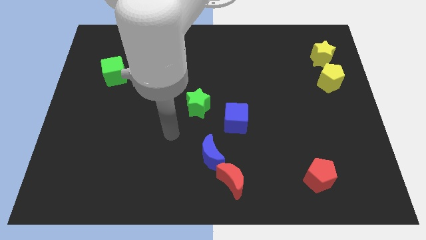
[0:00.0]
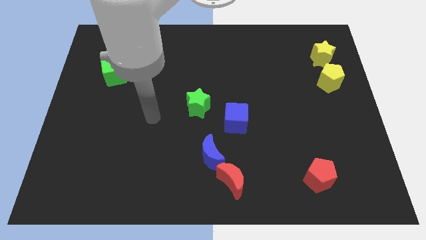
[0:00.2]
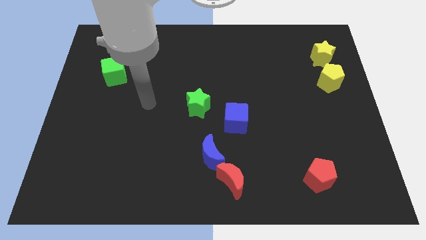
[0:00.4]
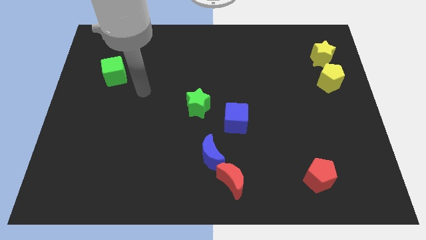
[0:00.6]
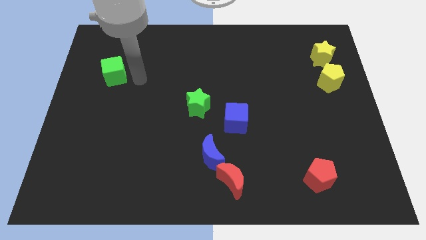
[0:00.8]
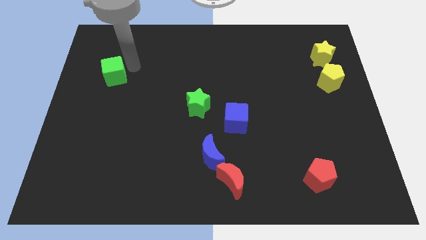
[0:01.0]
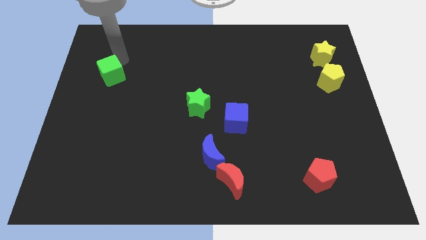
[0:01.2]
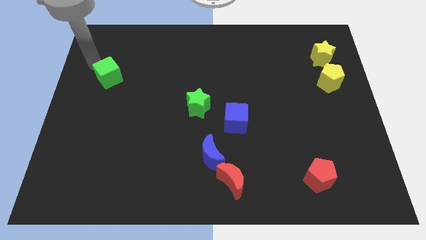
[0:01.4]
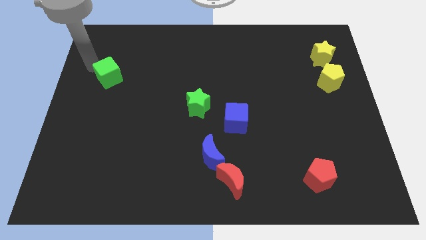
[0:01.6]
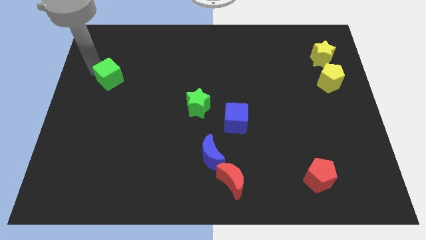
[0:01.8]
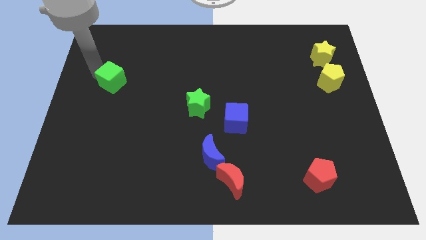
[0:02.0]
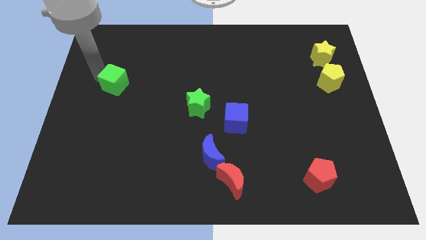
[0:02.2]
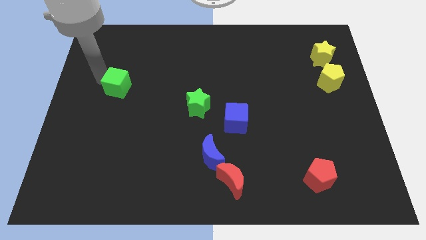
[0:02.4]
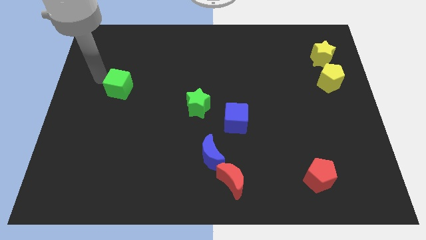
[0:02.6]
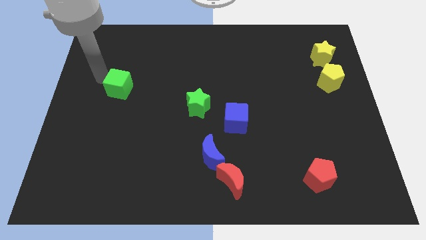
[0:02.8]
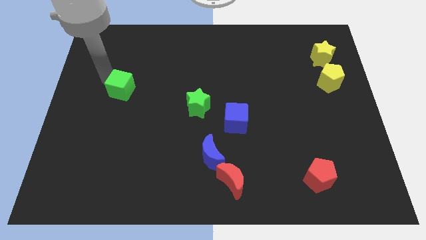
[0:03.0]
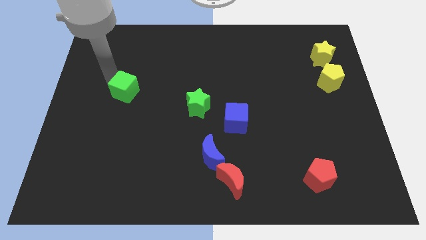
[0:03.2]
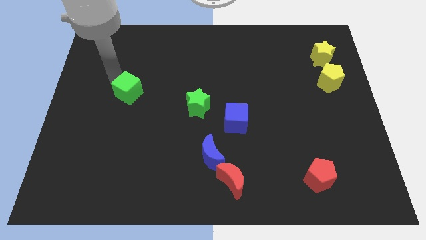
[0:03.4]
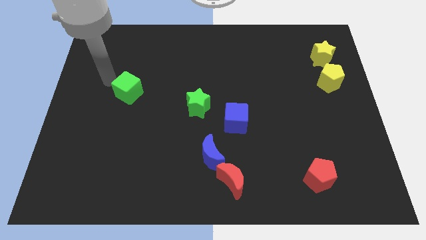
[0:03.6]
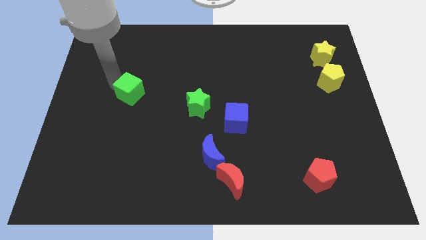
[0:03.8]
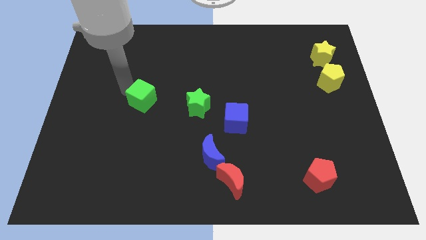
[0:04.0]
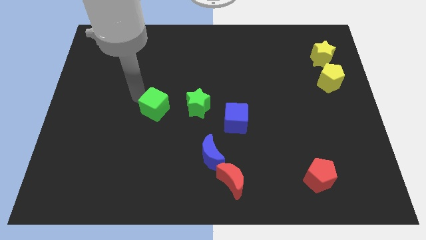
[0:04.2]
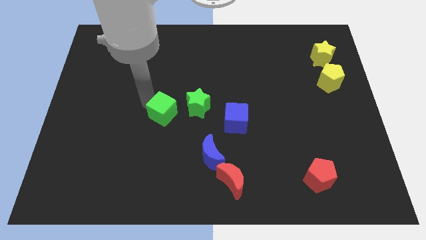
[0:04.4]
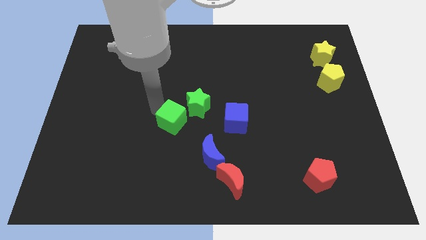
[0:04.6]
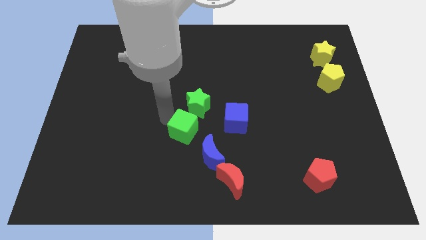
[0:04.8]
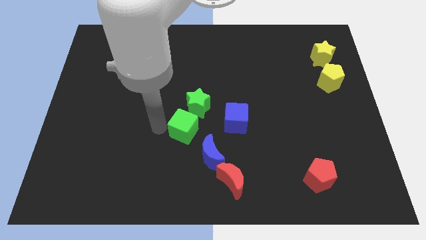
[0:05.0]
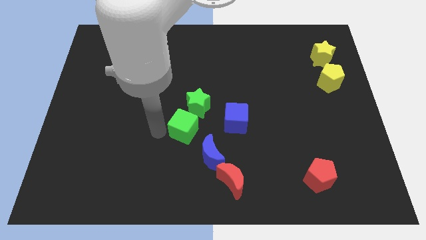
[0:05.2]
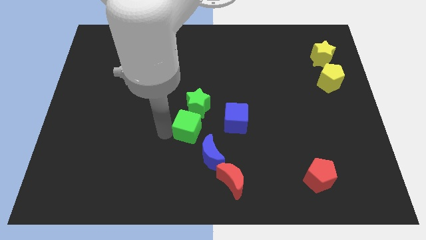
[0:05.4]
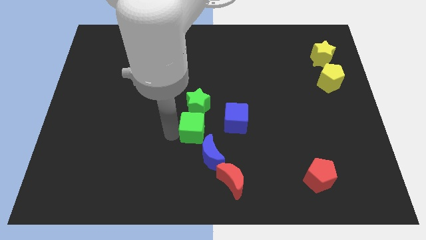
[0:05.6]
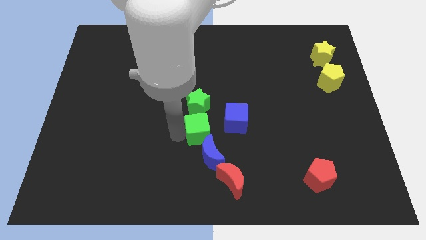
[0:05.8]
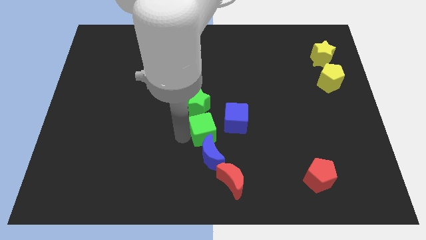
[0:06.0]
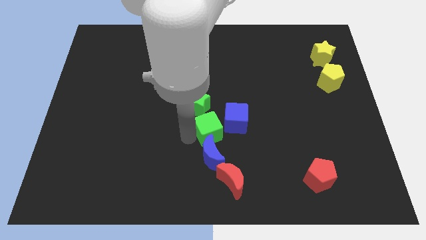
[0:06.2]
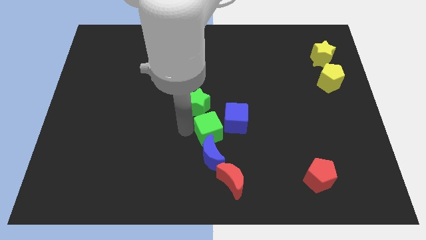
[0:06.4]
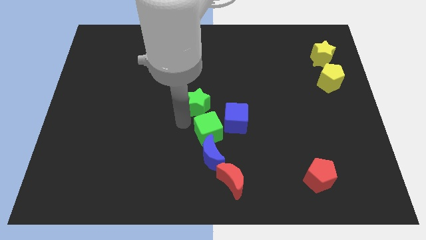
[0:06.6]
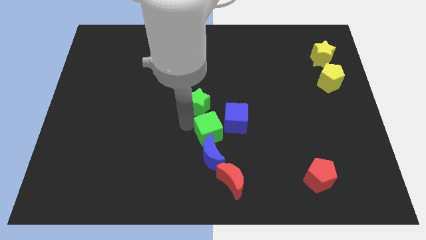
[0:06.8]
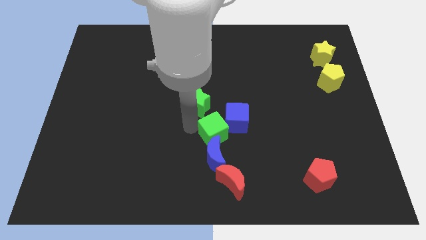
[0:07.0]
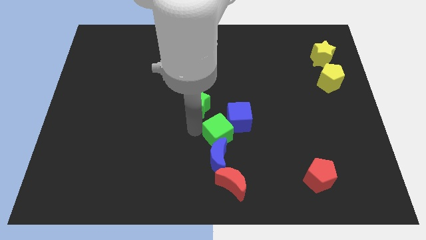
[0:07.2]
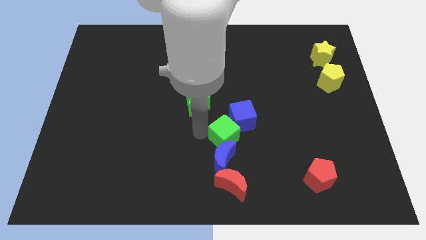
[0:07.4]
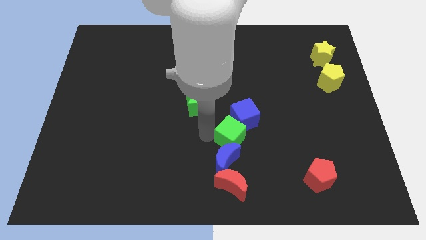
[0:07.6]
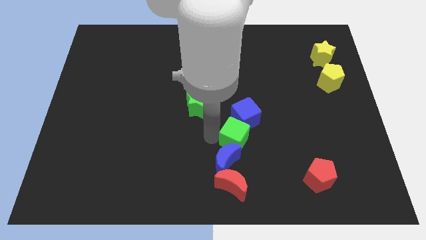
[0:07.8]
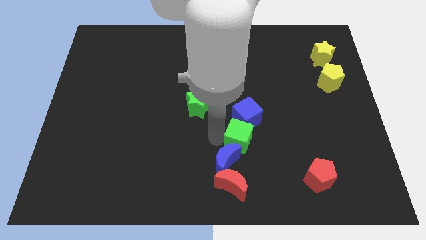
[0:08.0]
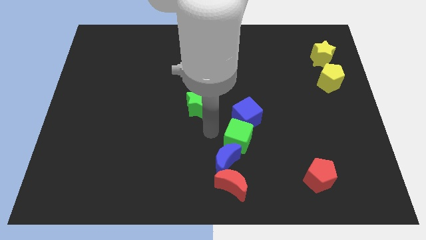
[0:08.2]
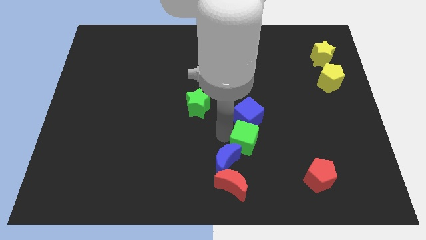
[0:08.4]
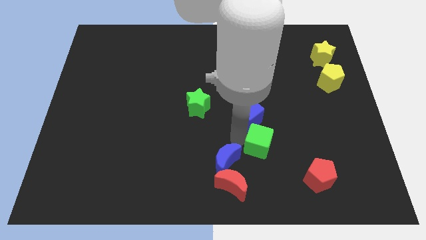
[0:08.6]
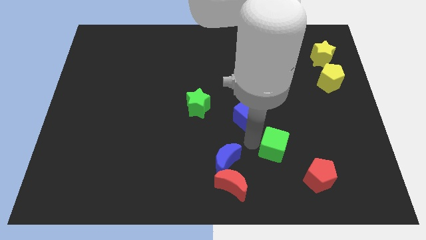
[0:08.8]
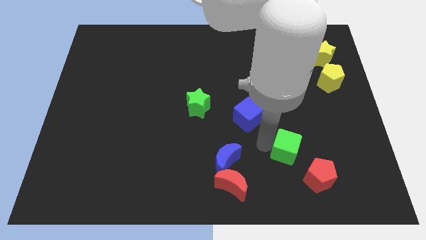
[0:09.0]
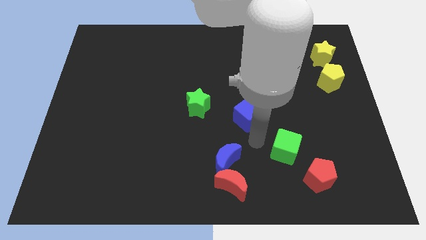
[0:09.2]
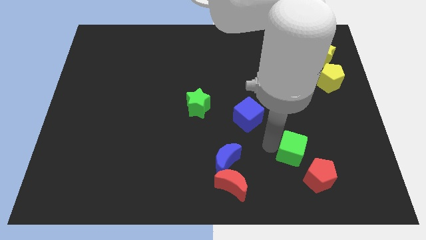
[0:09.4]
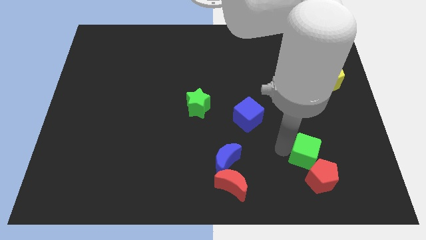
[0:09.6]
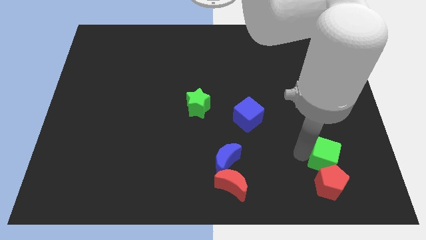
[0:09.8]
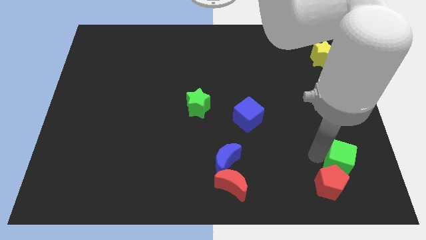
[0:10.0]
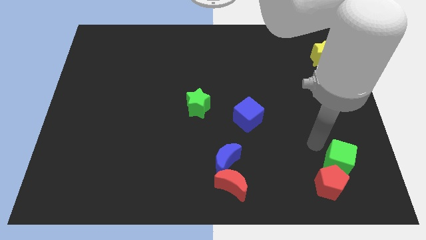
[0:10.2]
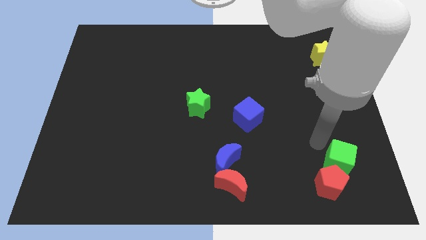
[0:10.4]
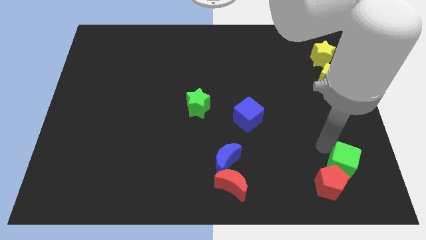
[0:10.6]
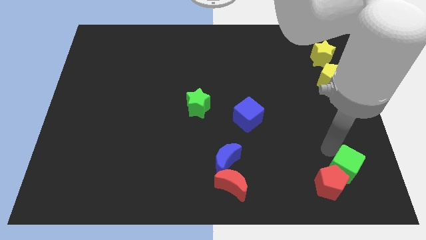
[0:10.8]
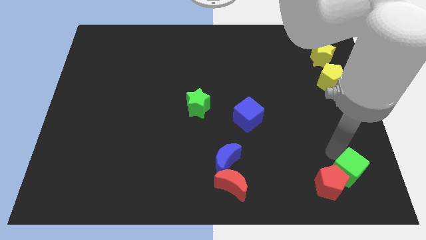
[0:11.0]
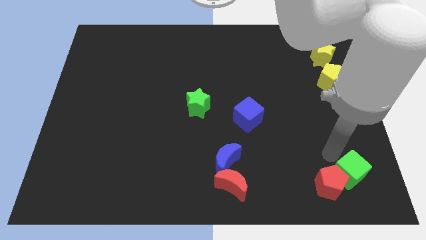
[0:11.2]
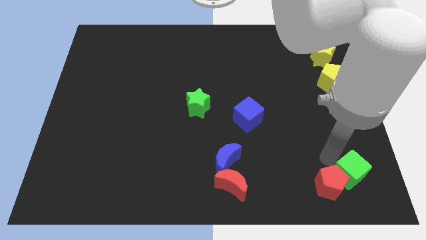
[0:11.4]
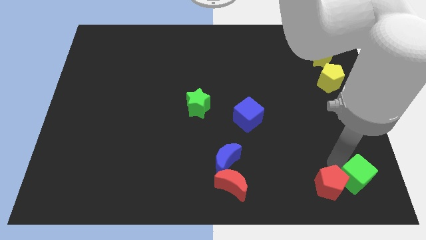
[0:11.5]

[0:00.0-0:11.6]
slide the green cube to the bottom right of the board
